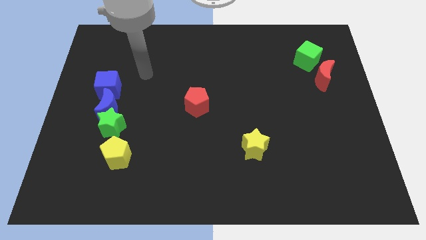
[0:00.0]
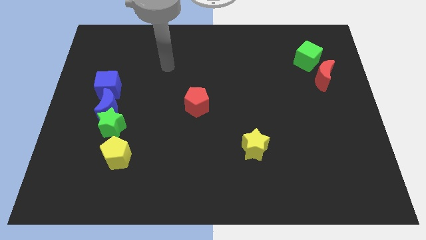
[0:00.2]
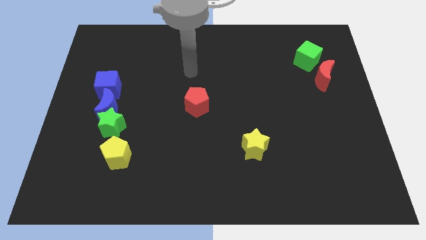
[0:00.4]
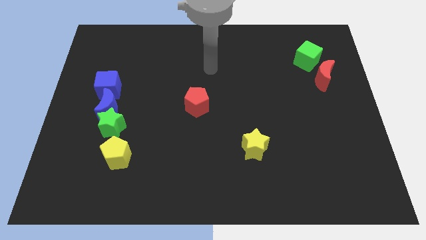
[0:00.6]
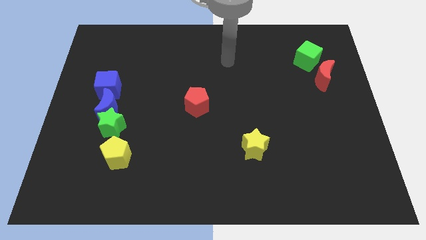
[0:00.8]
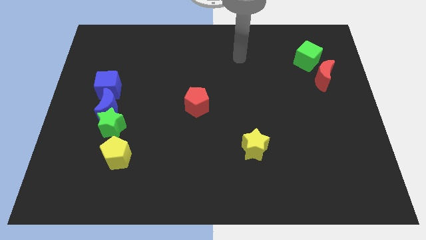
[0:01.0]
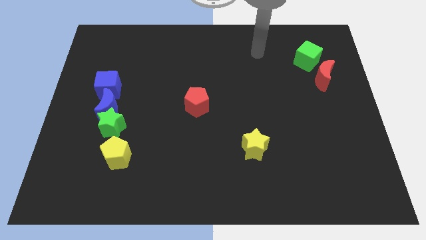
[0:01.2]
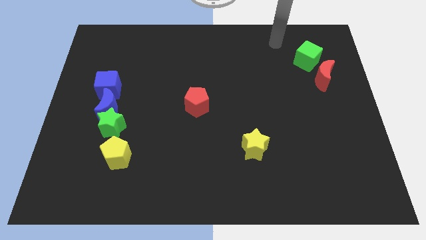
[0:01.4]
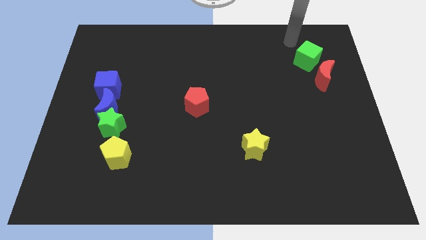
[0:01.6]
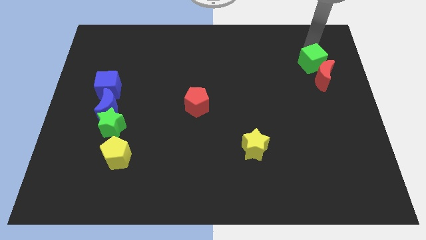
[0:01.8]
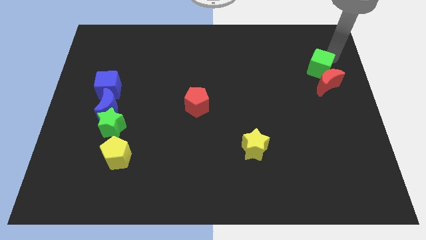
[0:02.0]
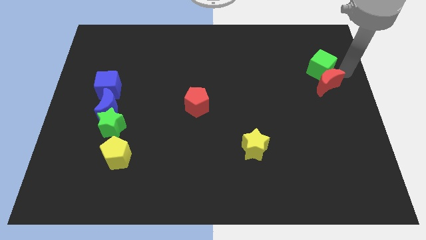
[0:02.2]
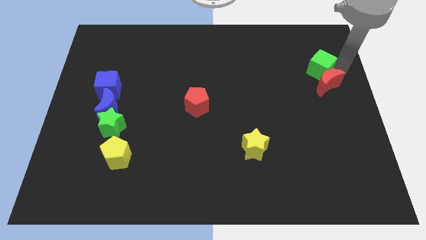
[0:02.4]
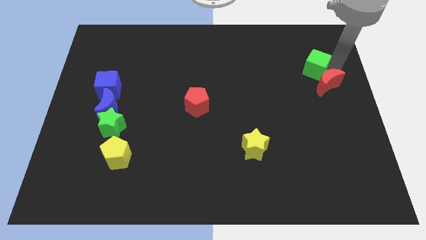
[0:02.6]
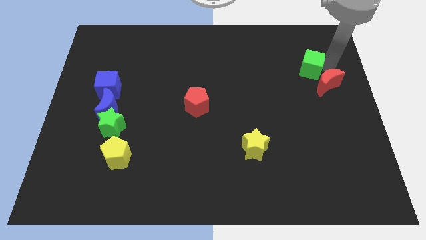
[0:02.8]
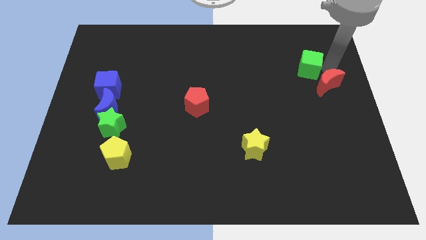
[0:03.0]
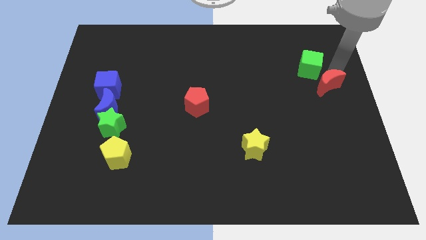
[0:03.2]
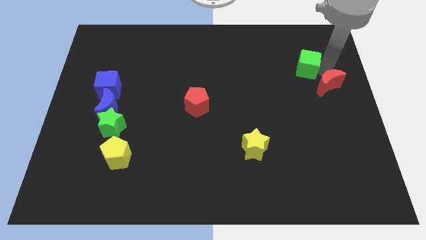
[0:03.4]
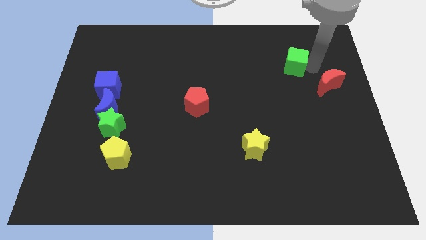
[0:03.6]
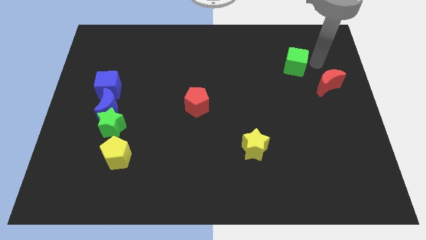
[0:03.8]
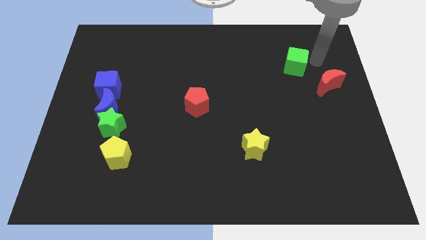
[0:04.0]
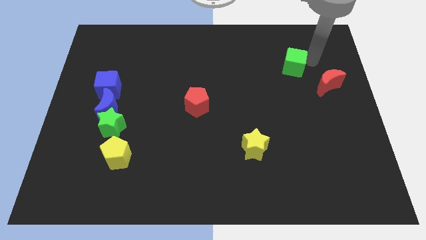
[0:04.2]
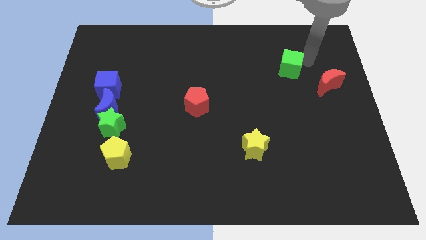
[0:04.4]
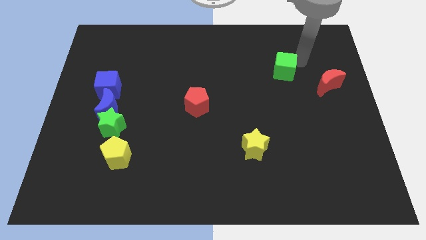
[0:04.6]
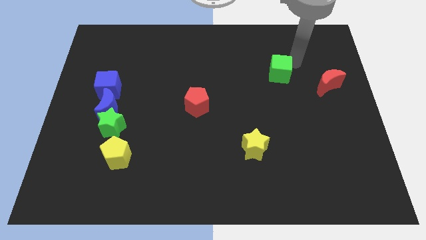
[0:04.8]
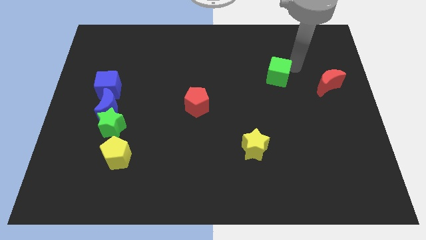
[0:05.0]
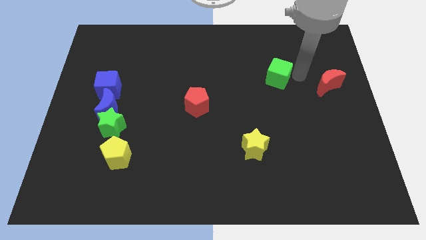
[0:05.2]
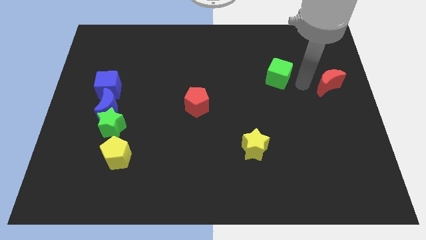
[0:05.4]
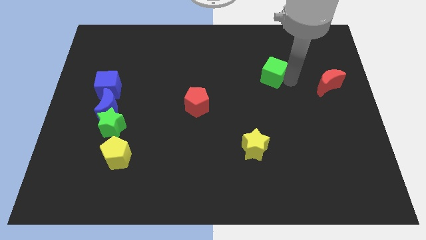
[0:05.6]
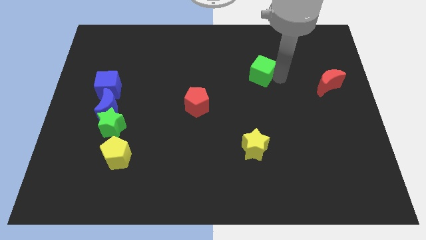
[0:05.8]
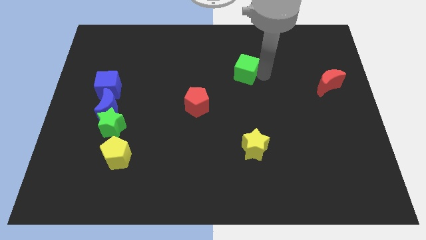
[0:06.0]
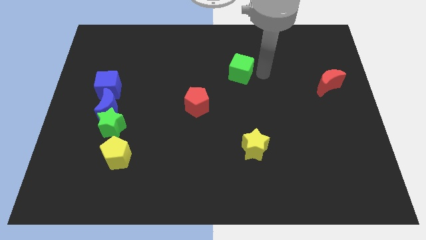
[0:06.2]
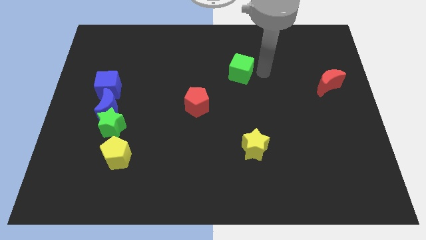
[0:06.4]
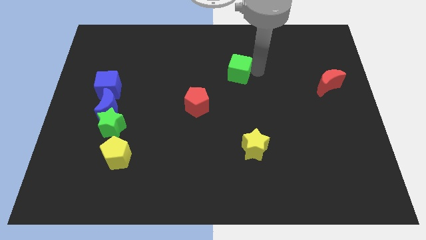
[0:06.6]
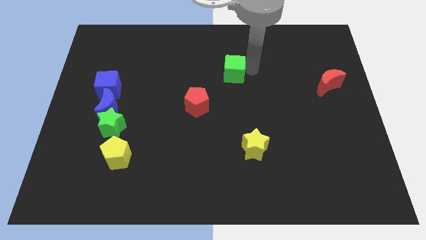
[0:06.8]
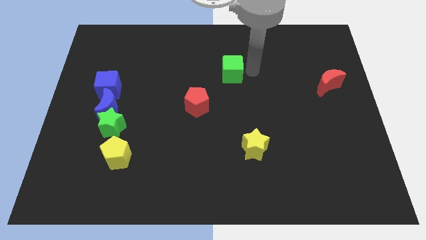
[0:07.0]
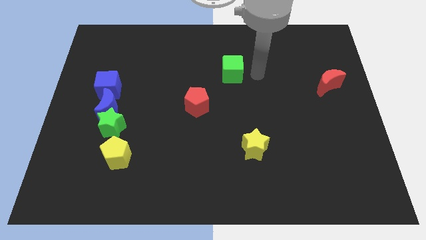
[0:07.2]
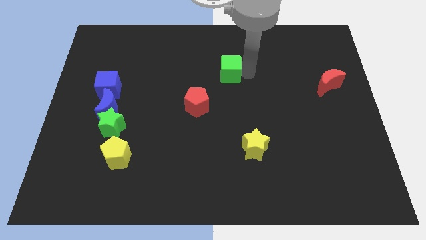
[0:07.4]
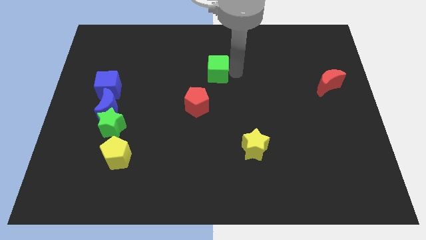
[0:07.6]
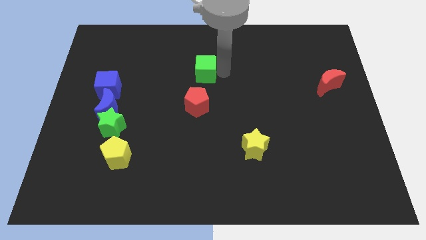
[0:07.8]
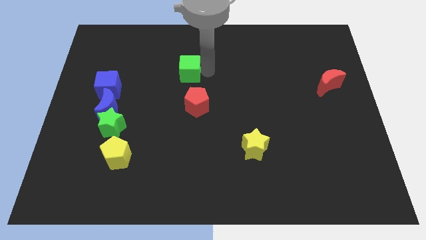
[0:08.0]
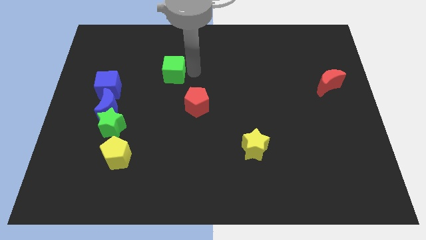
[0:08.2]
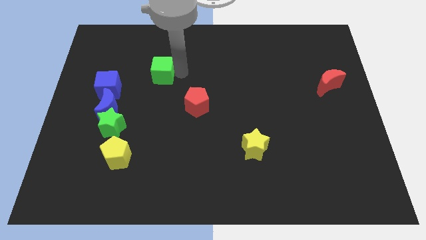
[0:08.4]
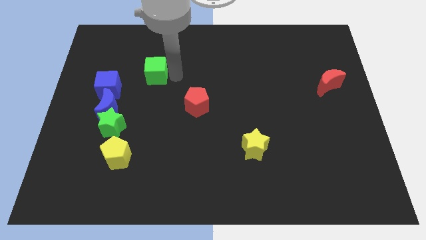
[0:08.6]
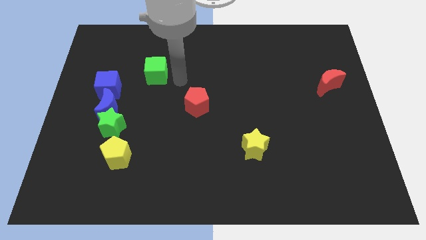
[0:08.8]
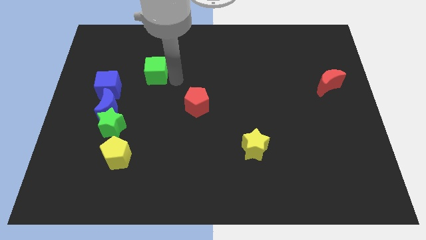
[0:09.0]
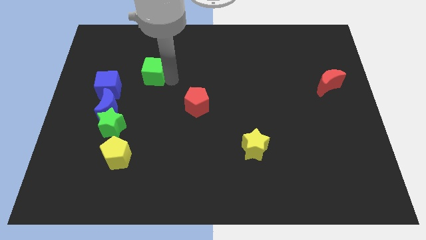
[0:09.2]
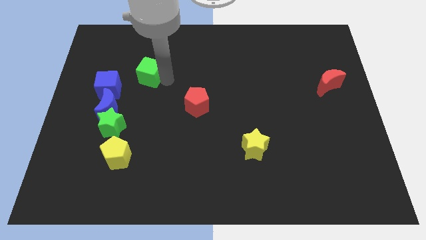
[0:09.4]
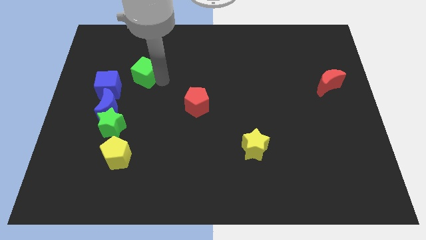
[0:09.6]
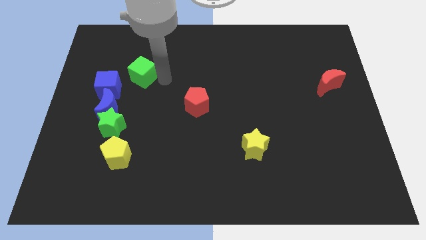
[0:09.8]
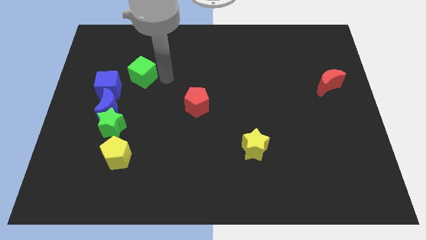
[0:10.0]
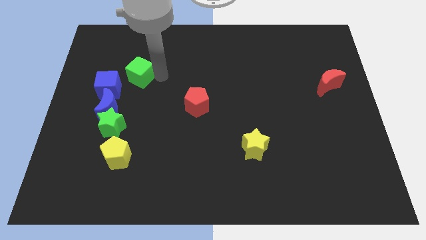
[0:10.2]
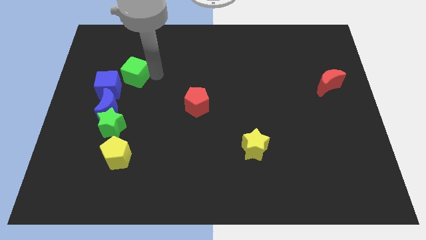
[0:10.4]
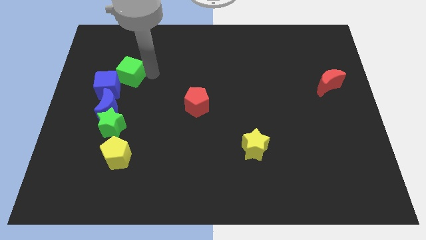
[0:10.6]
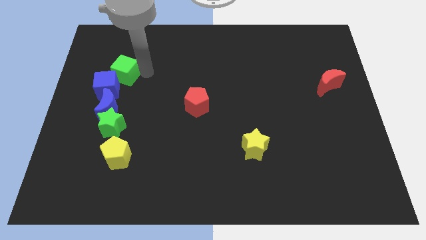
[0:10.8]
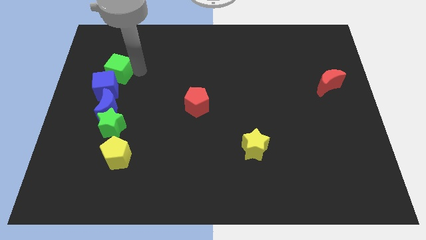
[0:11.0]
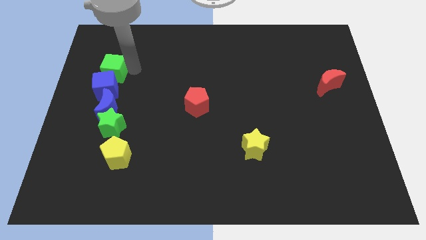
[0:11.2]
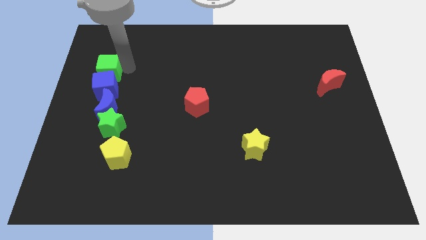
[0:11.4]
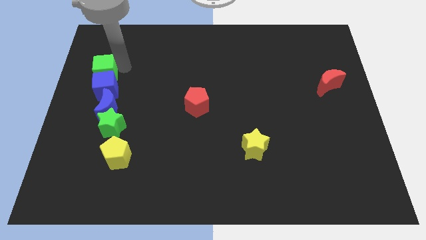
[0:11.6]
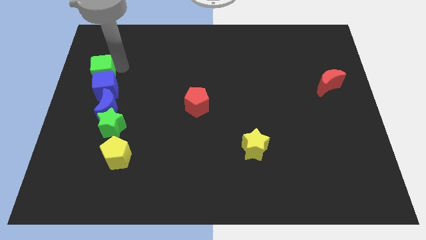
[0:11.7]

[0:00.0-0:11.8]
push the green cube to the left side of the board
